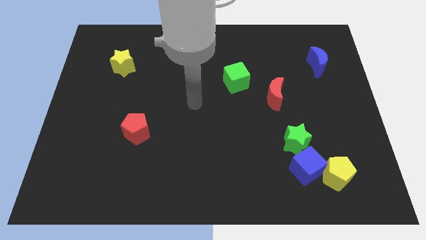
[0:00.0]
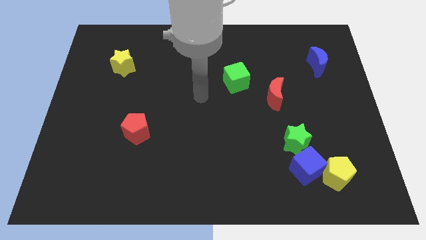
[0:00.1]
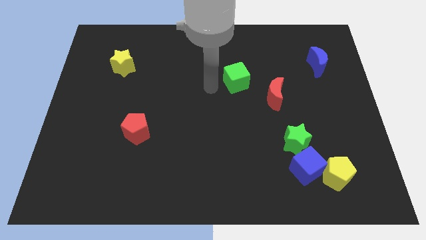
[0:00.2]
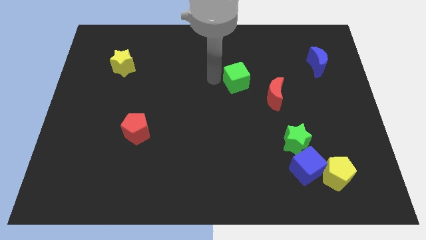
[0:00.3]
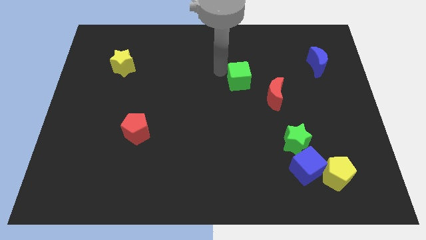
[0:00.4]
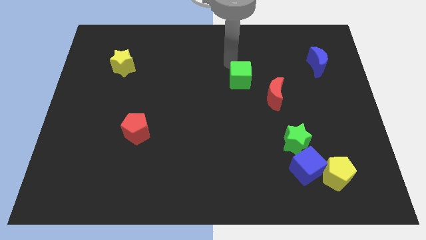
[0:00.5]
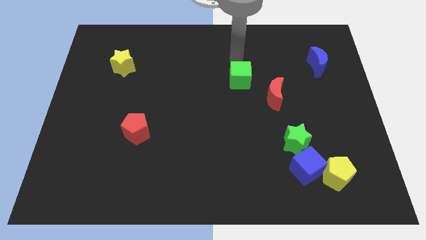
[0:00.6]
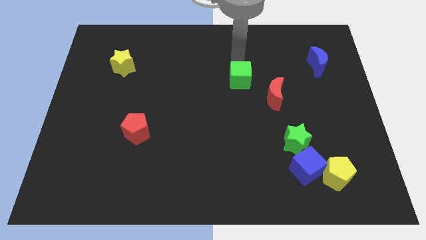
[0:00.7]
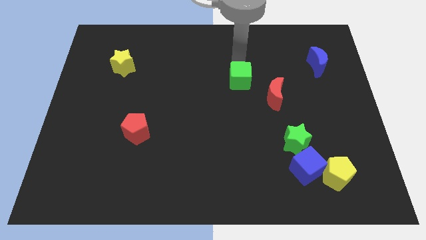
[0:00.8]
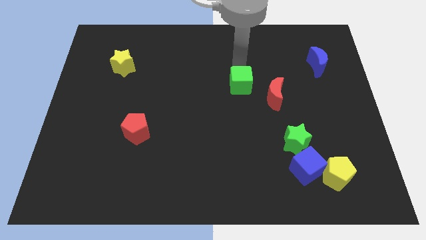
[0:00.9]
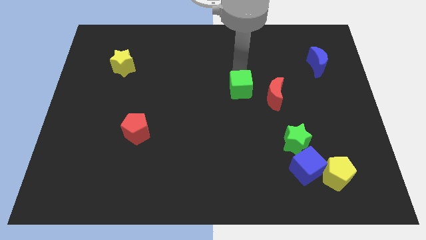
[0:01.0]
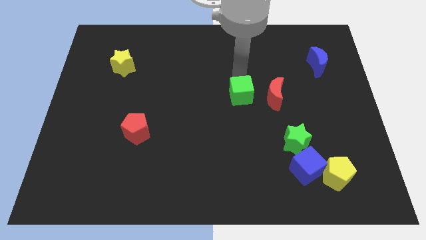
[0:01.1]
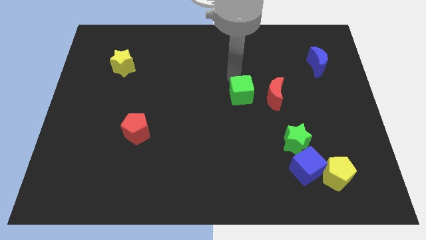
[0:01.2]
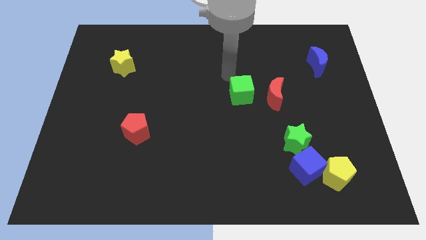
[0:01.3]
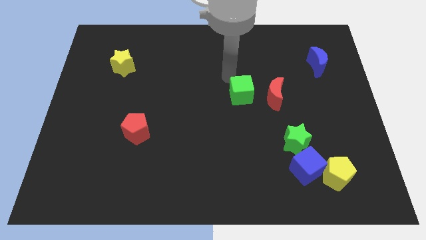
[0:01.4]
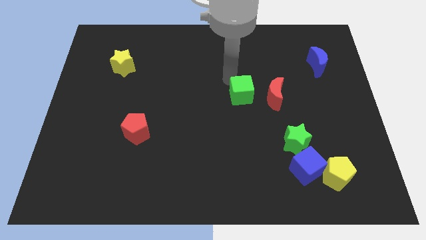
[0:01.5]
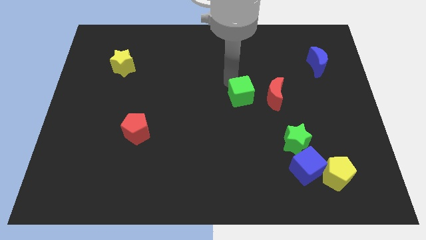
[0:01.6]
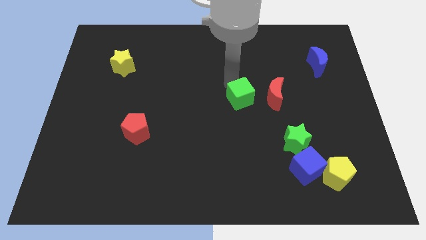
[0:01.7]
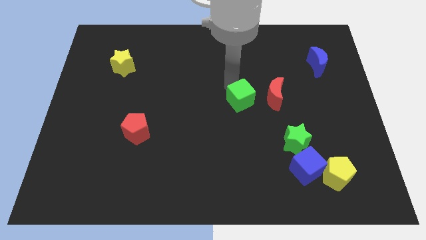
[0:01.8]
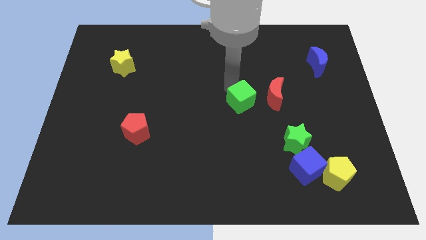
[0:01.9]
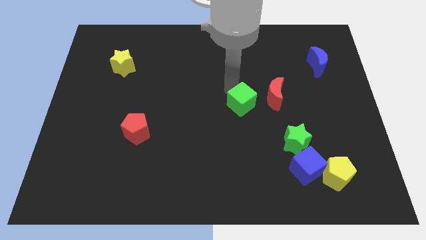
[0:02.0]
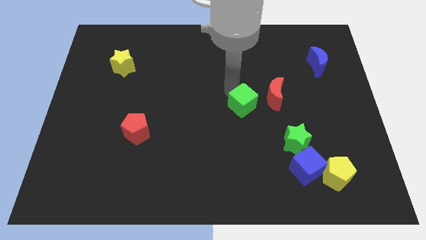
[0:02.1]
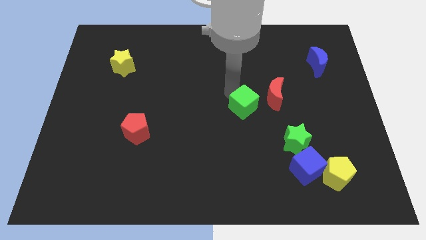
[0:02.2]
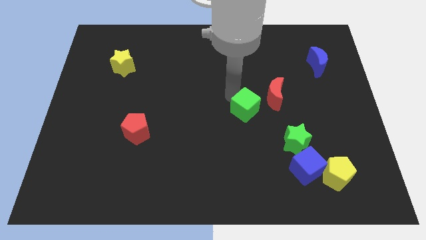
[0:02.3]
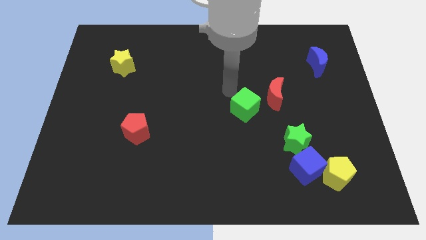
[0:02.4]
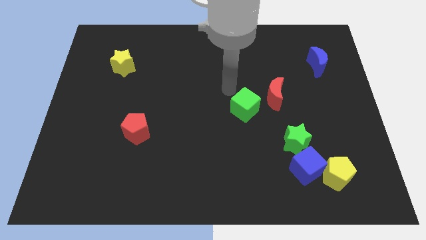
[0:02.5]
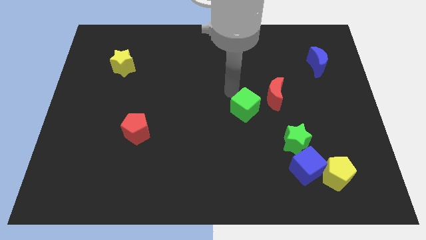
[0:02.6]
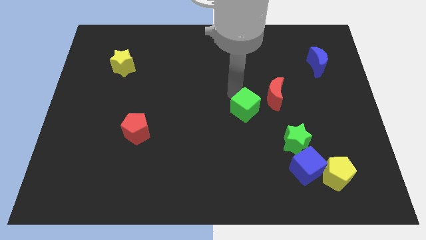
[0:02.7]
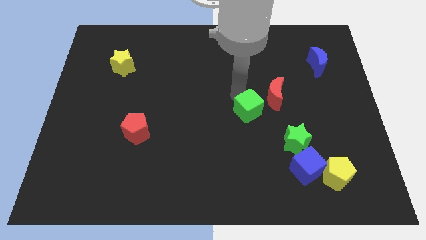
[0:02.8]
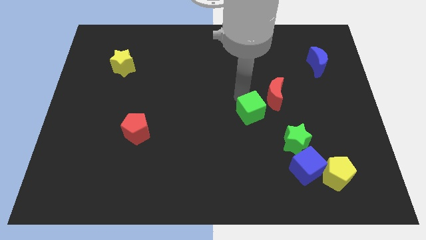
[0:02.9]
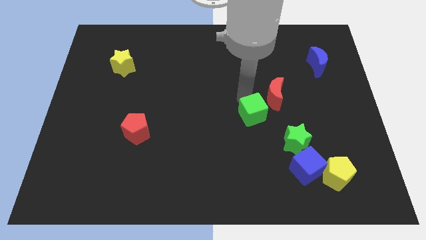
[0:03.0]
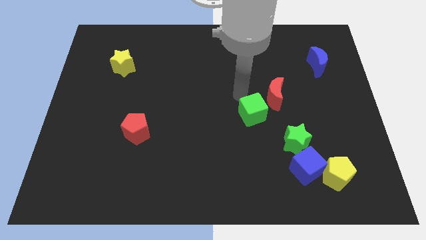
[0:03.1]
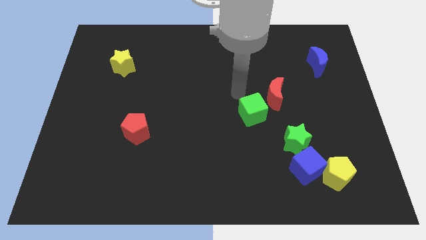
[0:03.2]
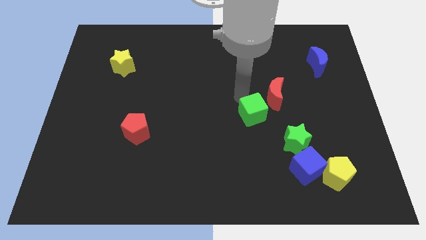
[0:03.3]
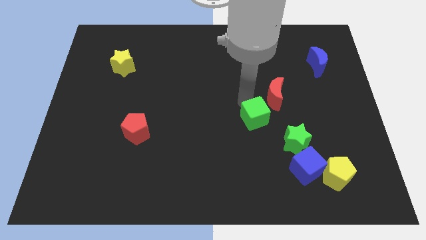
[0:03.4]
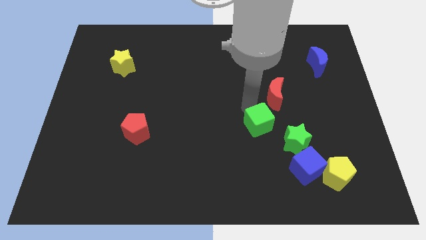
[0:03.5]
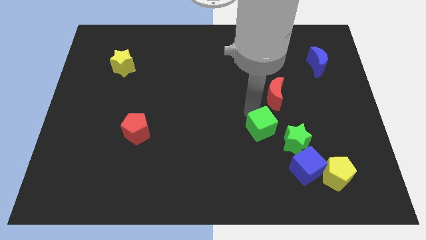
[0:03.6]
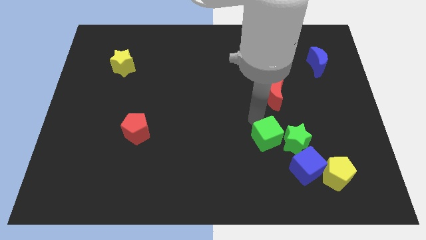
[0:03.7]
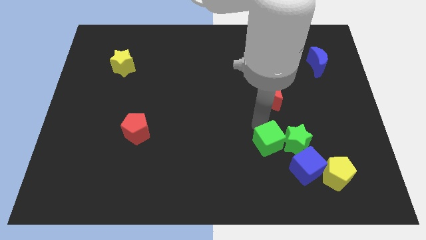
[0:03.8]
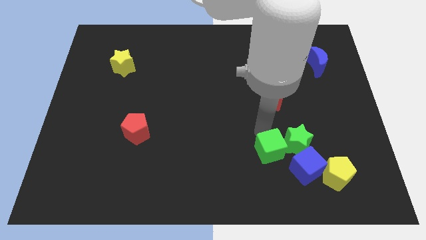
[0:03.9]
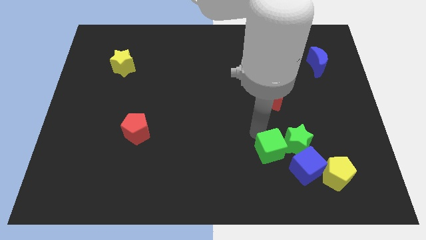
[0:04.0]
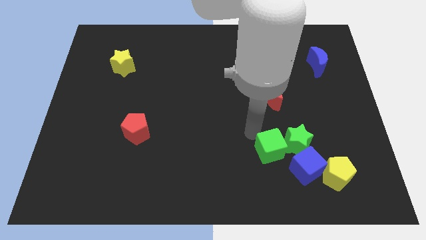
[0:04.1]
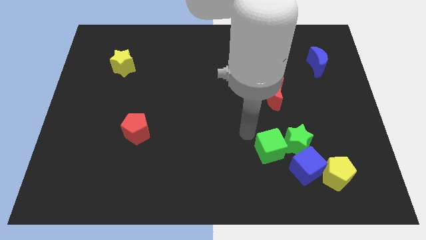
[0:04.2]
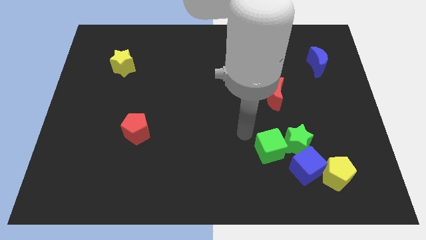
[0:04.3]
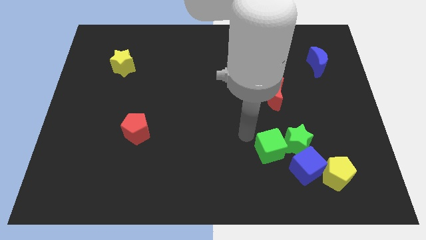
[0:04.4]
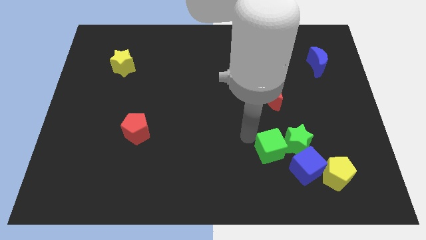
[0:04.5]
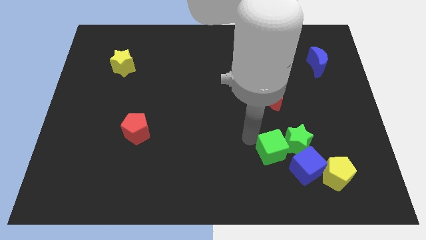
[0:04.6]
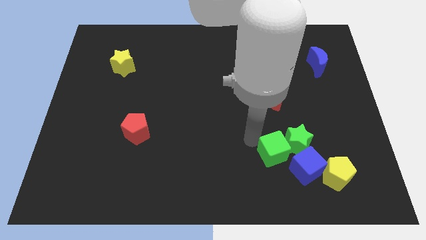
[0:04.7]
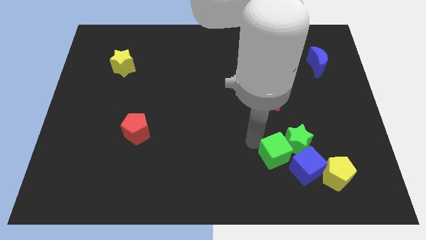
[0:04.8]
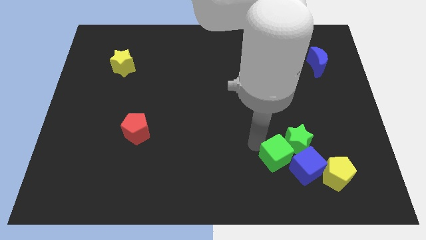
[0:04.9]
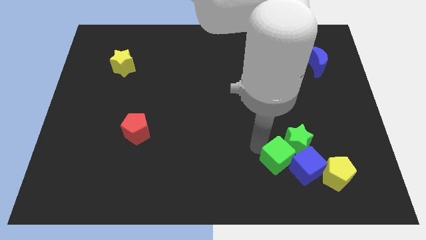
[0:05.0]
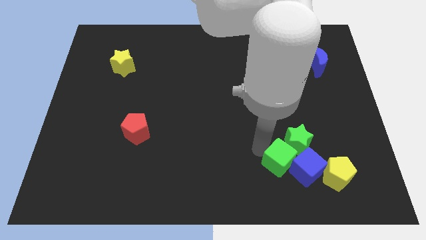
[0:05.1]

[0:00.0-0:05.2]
move the green cube to the blue cube

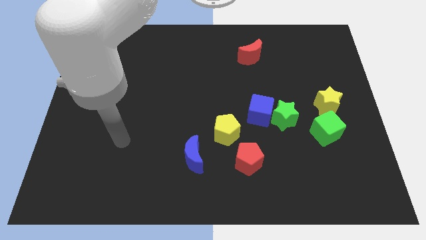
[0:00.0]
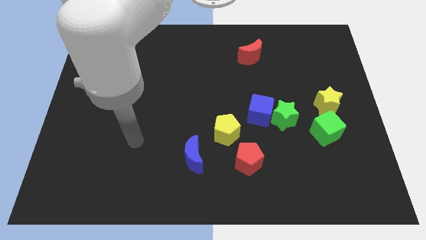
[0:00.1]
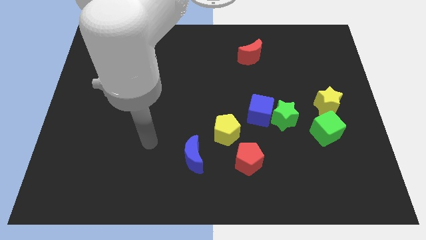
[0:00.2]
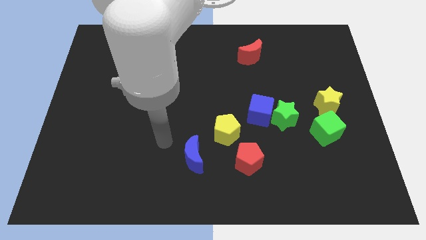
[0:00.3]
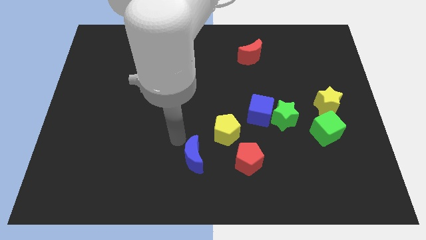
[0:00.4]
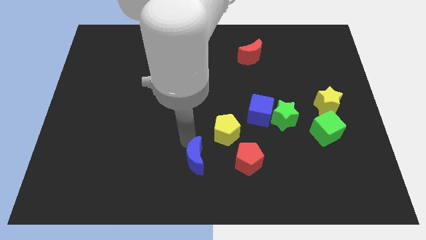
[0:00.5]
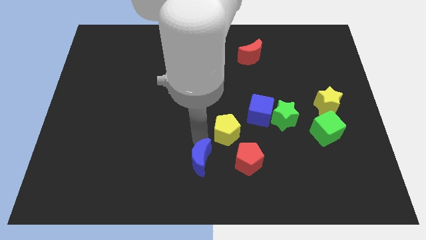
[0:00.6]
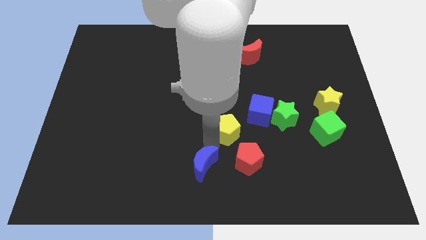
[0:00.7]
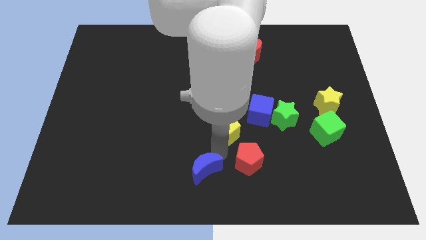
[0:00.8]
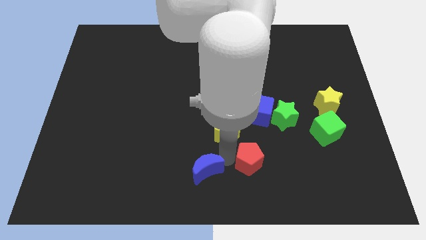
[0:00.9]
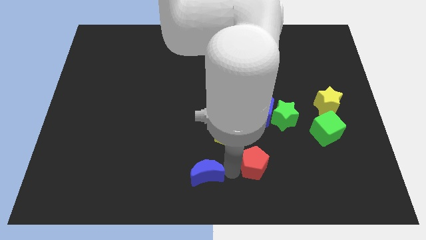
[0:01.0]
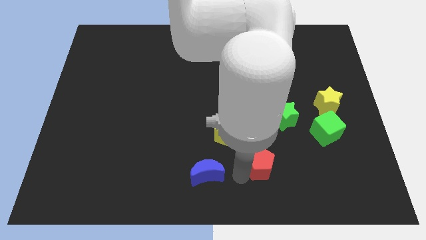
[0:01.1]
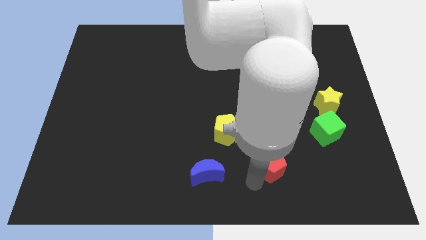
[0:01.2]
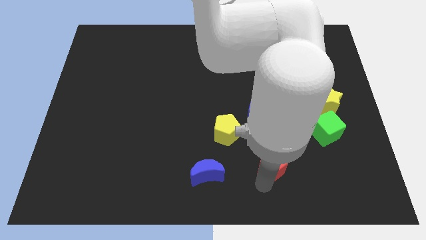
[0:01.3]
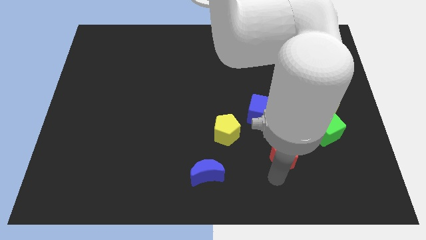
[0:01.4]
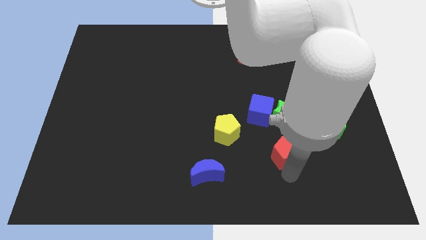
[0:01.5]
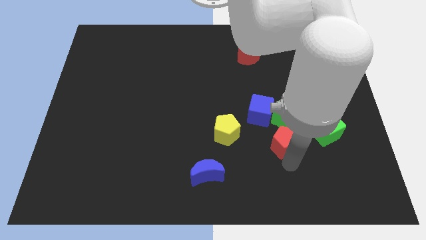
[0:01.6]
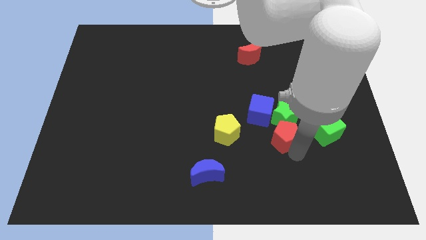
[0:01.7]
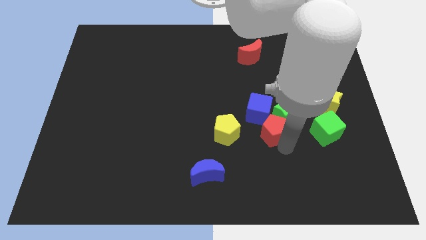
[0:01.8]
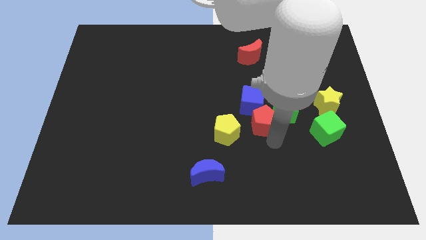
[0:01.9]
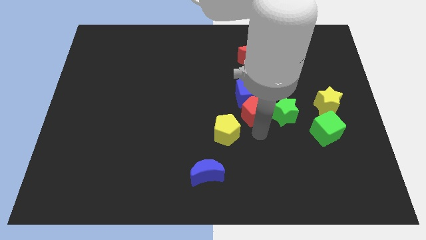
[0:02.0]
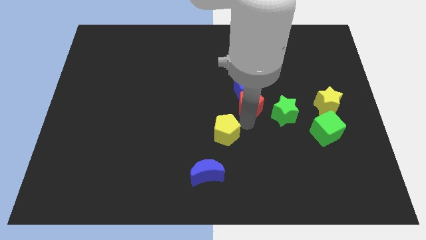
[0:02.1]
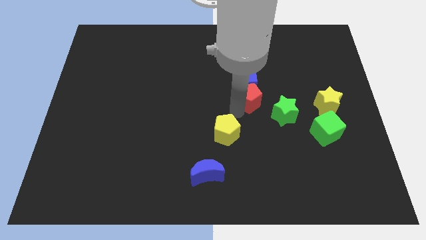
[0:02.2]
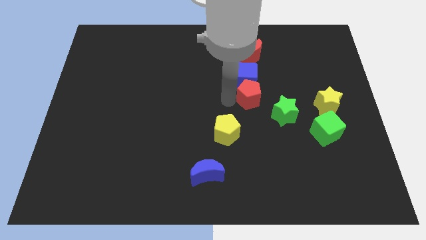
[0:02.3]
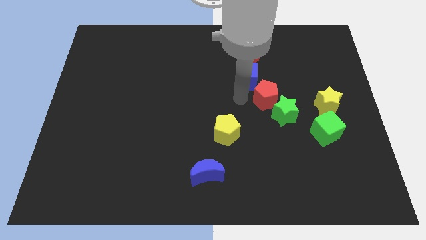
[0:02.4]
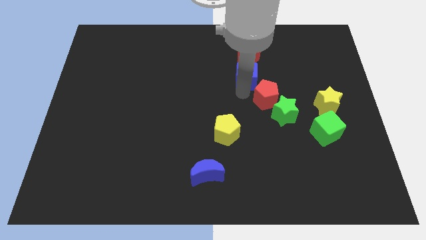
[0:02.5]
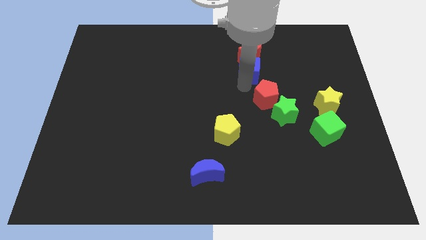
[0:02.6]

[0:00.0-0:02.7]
slide the blue cube to the red moon
